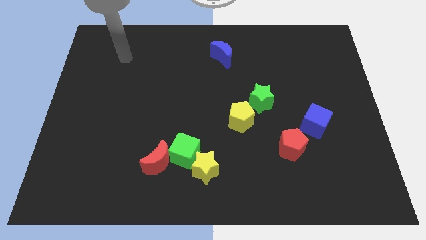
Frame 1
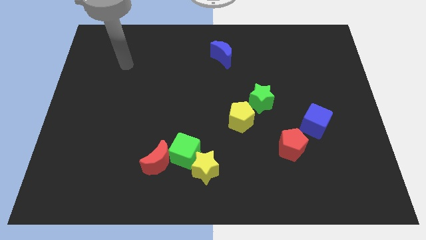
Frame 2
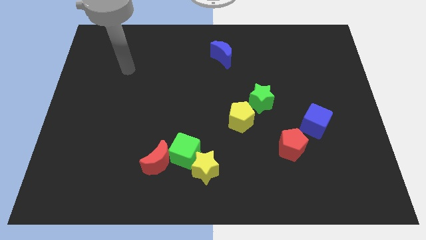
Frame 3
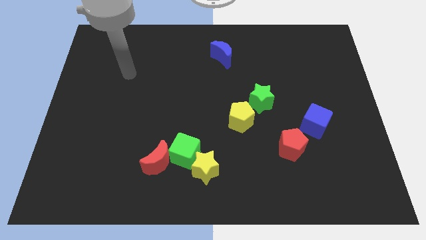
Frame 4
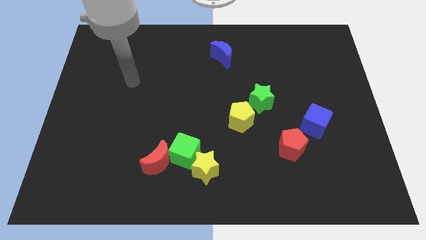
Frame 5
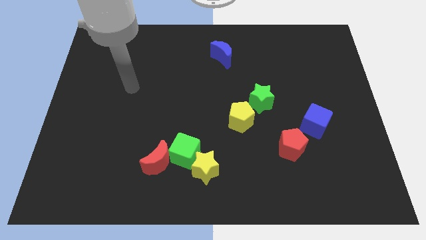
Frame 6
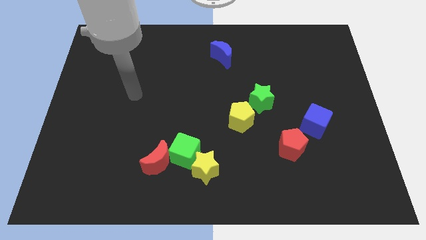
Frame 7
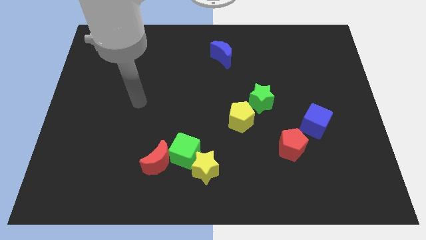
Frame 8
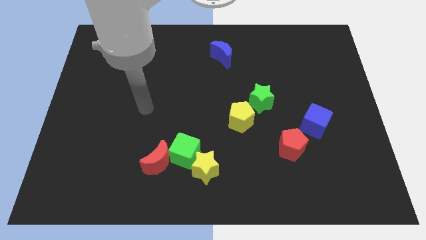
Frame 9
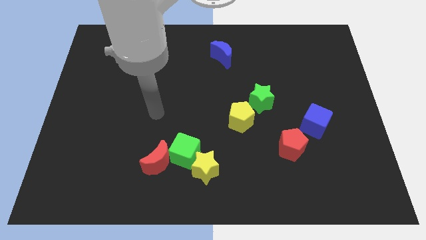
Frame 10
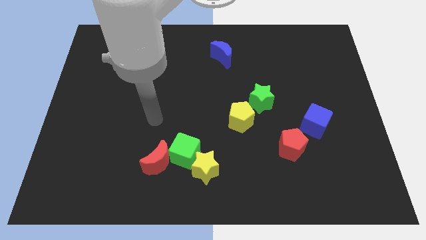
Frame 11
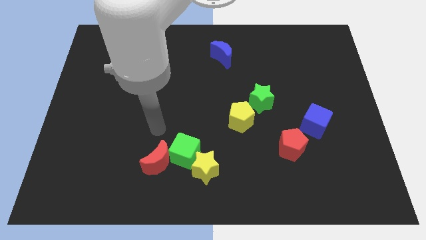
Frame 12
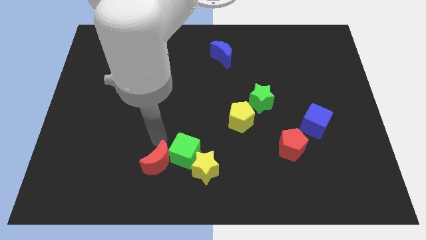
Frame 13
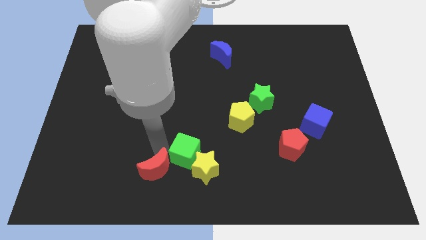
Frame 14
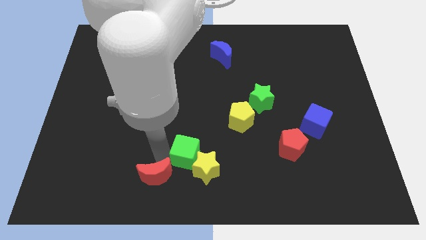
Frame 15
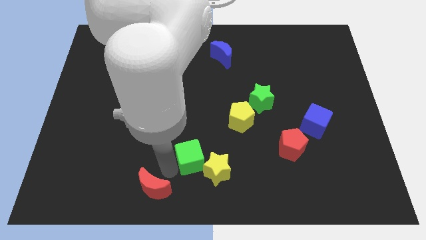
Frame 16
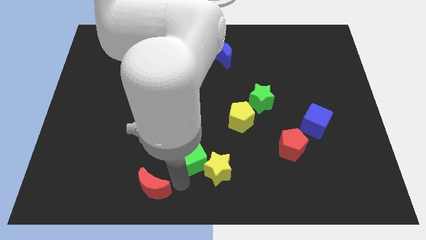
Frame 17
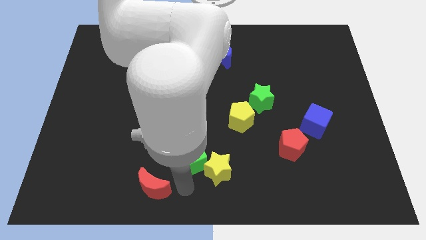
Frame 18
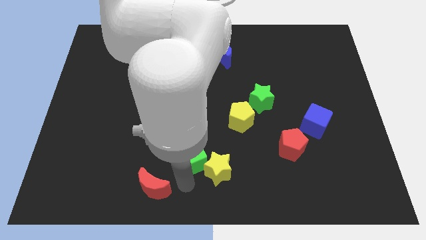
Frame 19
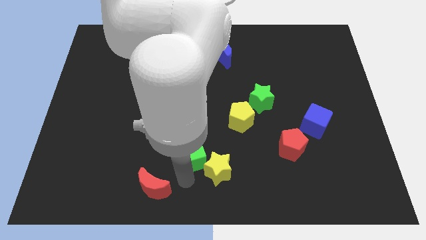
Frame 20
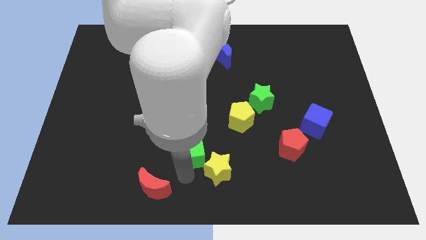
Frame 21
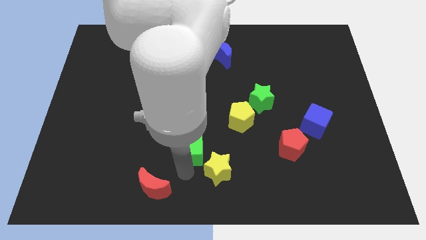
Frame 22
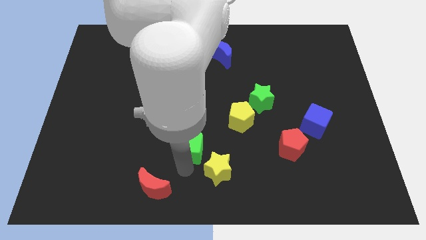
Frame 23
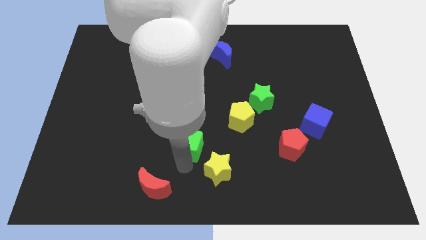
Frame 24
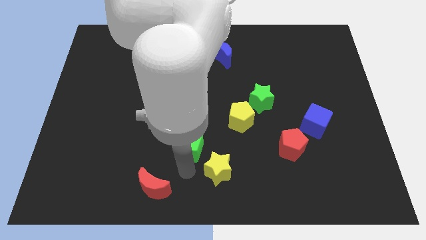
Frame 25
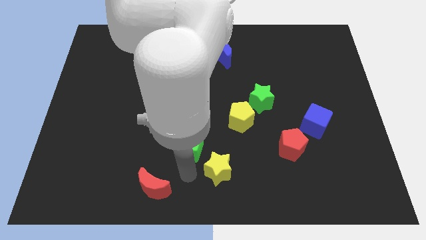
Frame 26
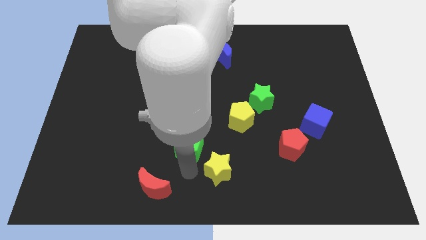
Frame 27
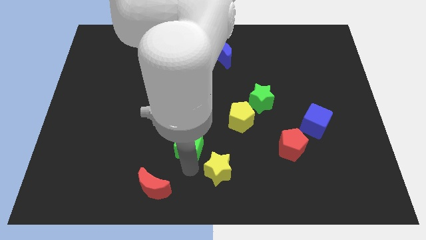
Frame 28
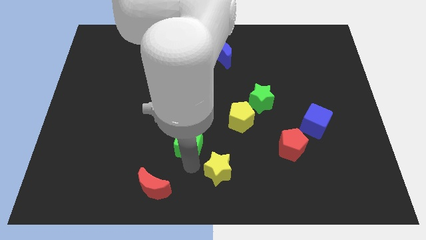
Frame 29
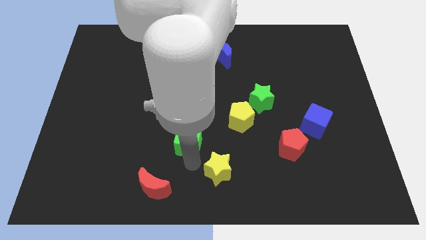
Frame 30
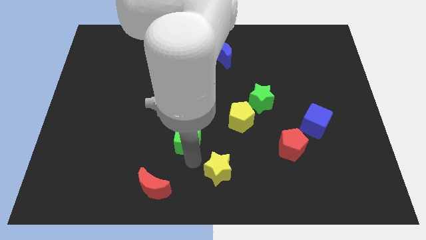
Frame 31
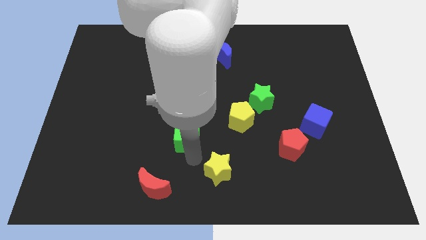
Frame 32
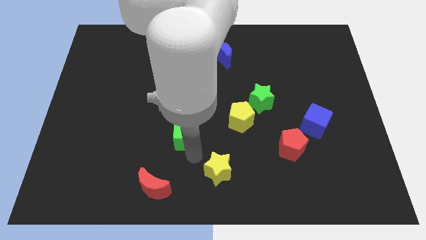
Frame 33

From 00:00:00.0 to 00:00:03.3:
separate the green cube from the red moon and yellow star

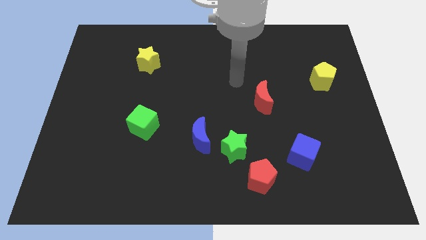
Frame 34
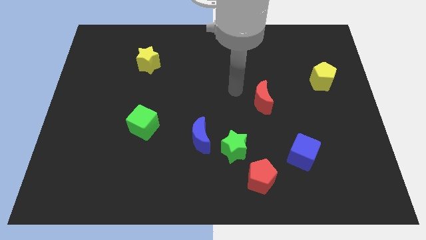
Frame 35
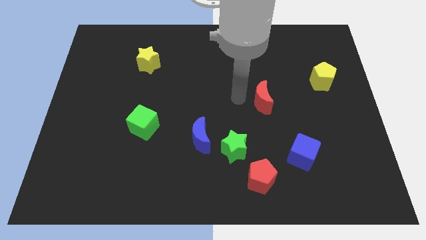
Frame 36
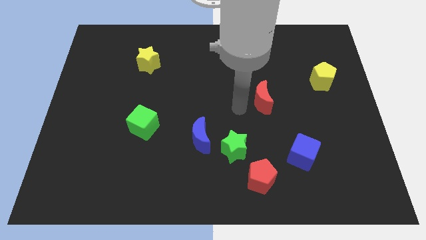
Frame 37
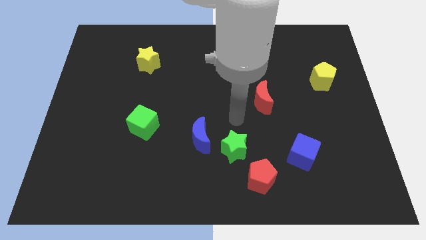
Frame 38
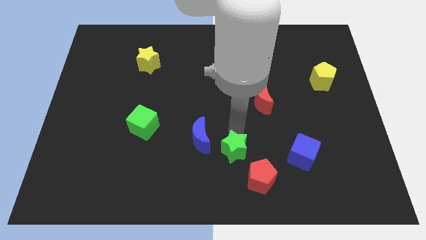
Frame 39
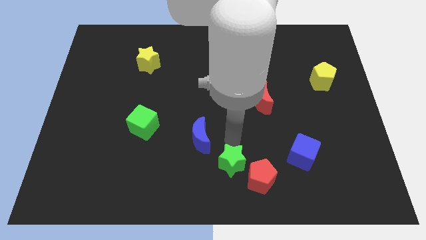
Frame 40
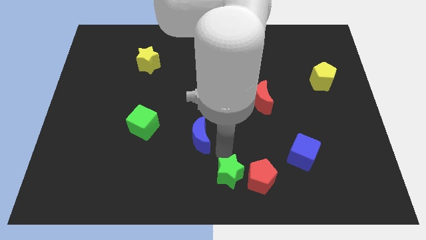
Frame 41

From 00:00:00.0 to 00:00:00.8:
pull the blue moon apart from the green star

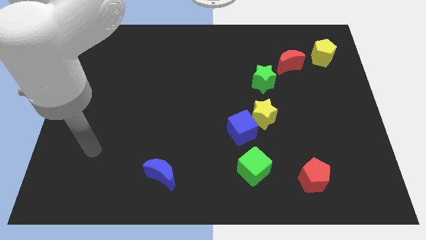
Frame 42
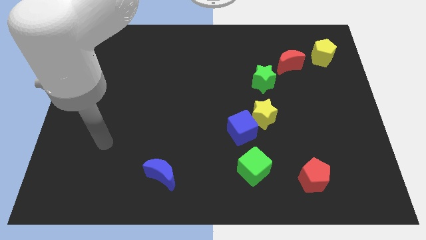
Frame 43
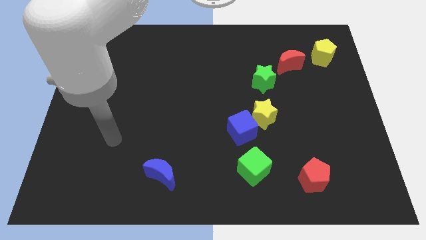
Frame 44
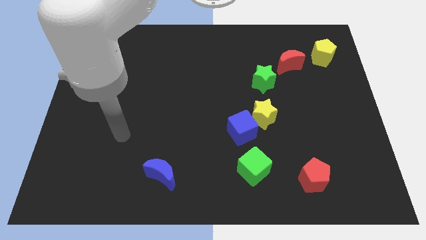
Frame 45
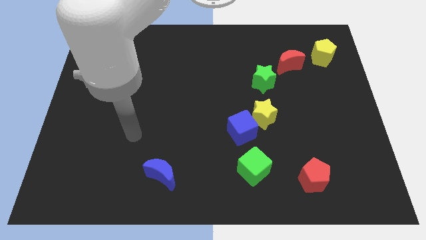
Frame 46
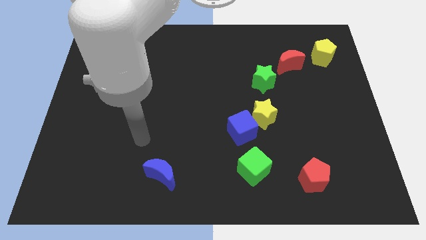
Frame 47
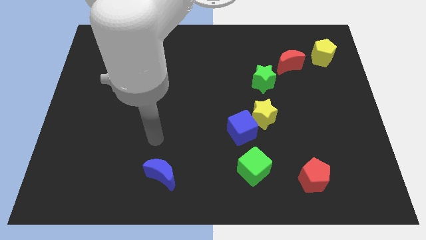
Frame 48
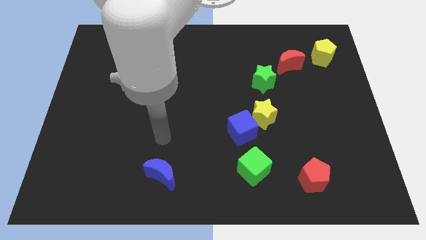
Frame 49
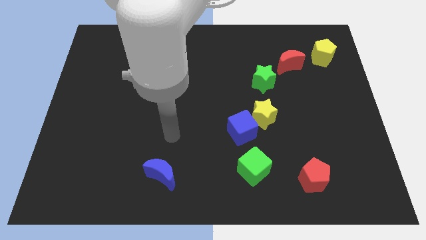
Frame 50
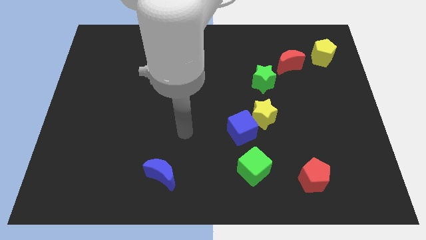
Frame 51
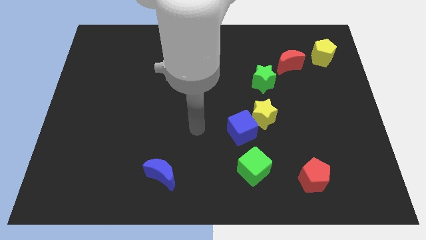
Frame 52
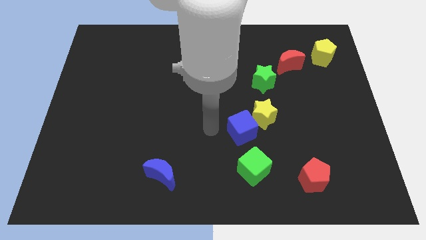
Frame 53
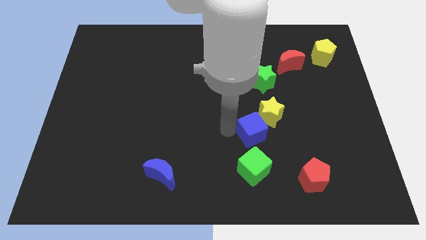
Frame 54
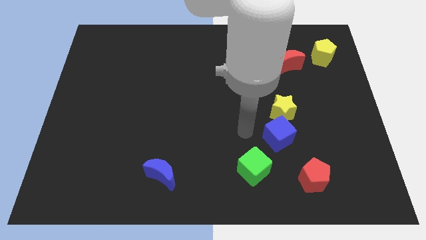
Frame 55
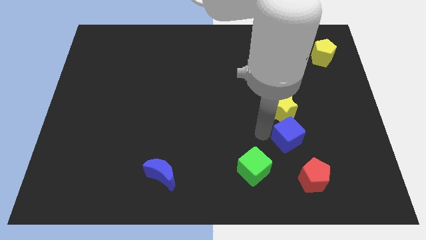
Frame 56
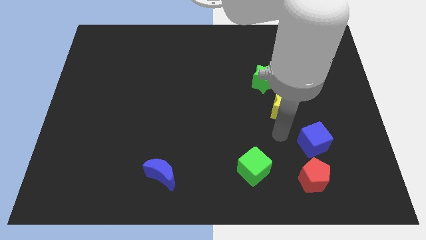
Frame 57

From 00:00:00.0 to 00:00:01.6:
separate the yellow star from the blue cube

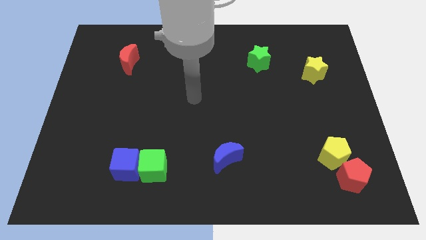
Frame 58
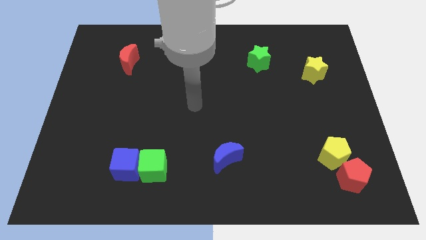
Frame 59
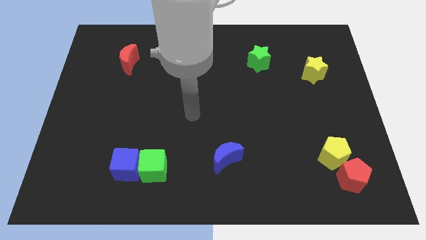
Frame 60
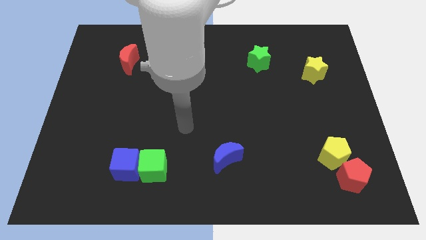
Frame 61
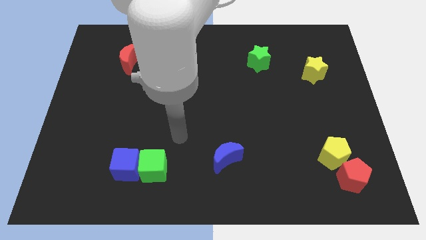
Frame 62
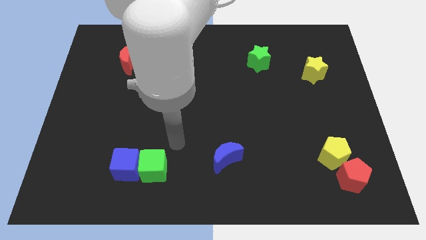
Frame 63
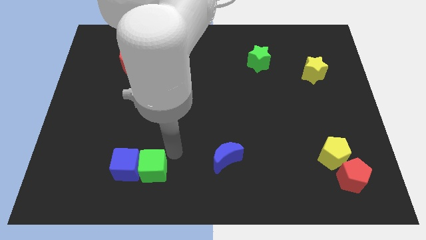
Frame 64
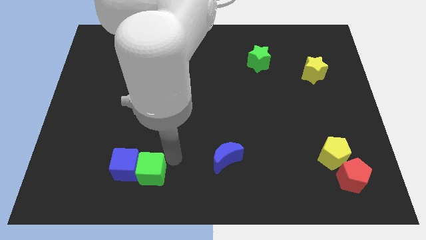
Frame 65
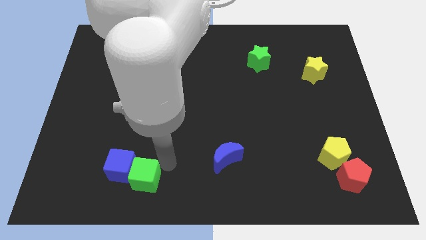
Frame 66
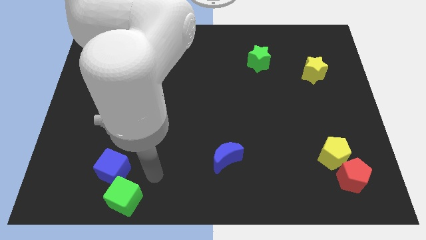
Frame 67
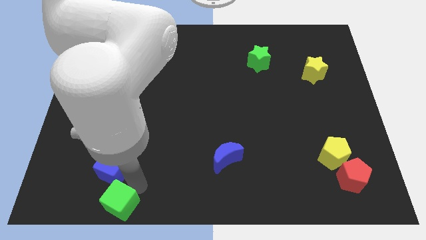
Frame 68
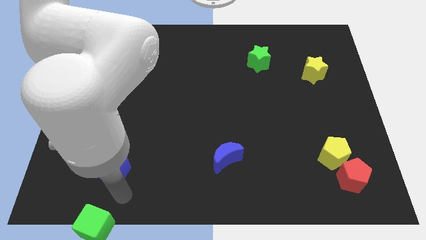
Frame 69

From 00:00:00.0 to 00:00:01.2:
move the blue cube away from the green cube

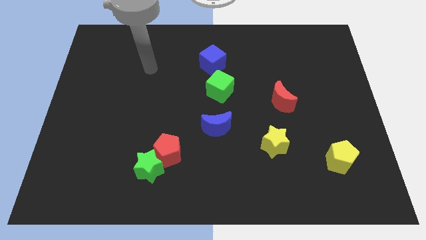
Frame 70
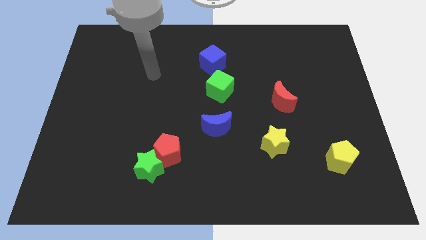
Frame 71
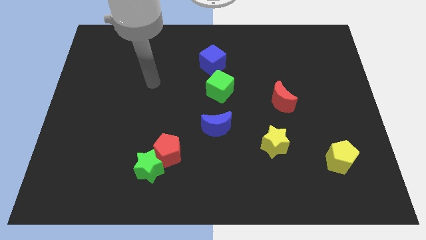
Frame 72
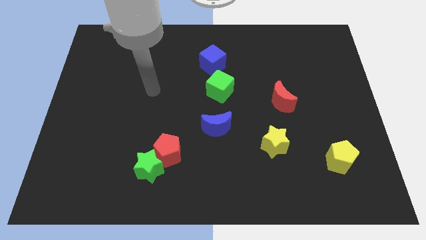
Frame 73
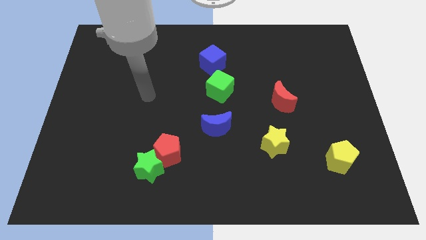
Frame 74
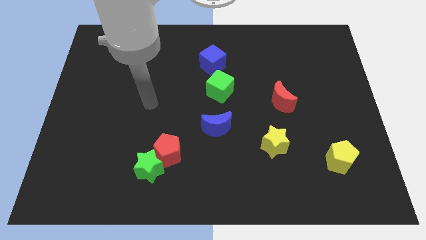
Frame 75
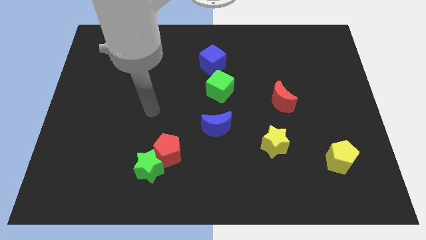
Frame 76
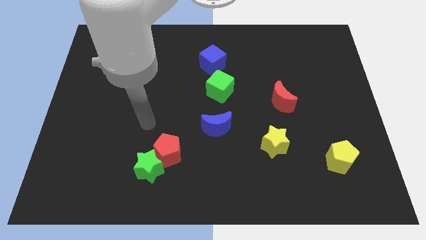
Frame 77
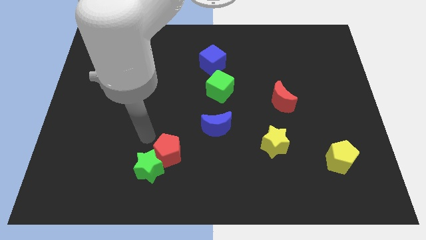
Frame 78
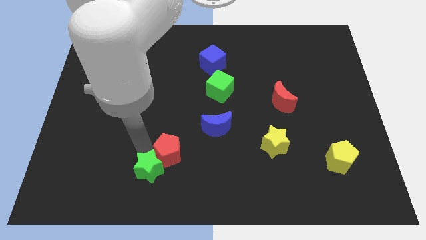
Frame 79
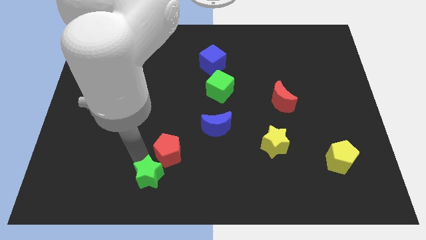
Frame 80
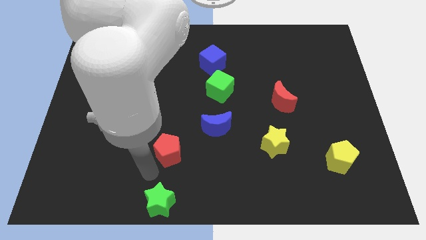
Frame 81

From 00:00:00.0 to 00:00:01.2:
move the red pentagon away from the green star

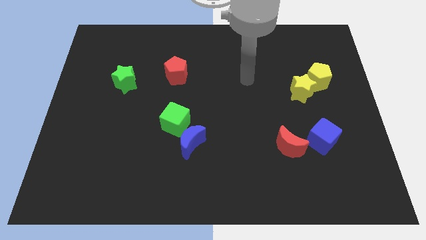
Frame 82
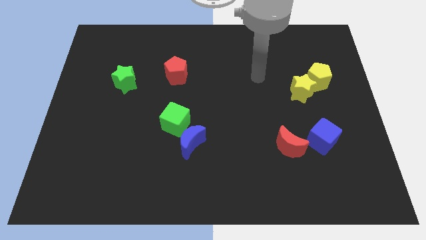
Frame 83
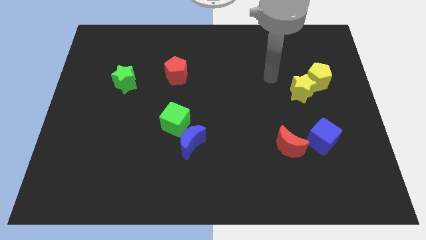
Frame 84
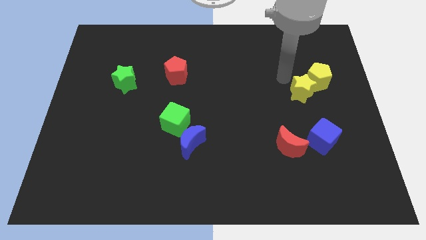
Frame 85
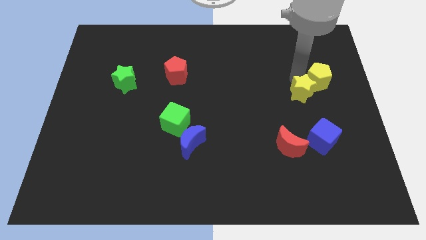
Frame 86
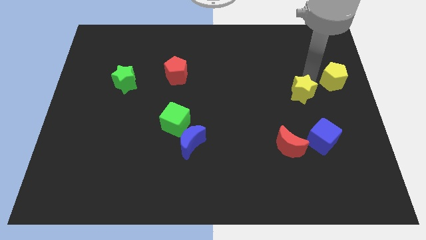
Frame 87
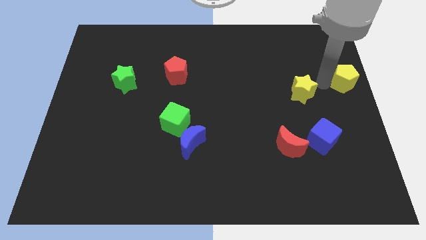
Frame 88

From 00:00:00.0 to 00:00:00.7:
move the yellow star away from the yellow pentagon

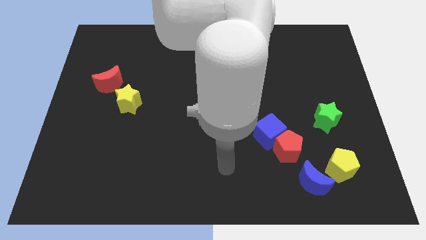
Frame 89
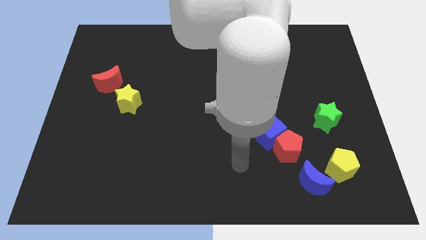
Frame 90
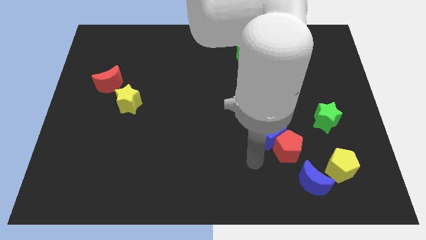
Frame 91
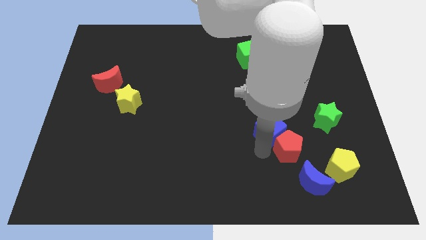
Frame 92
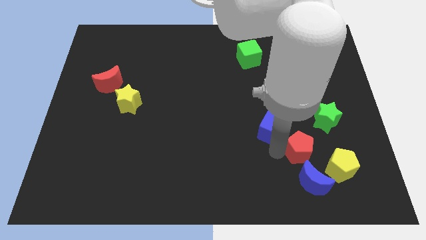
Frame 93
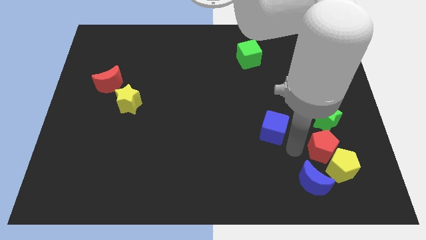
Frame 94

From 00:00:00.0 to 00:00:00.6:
pull the blue cube apart from the red pentagon
